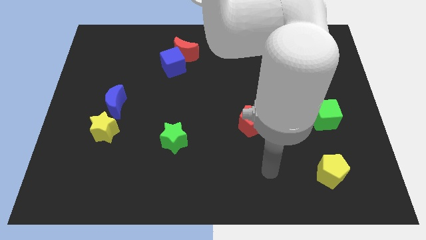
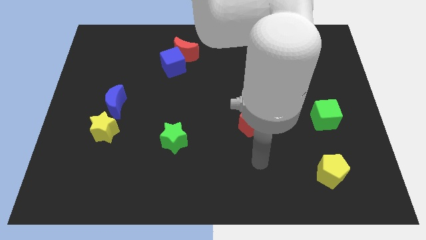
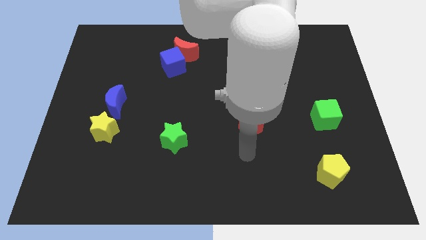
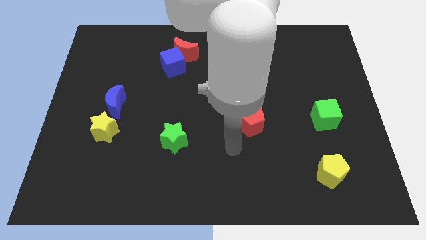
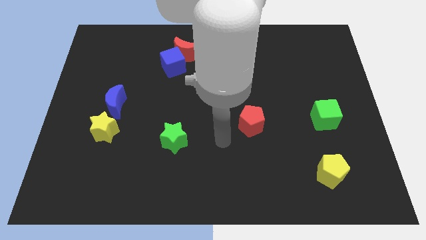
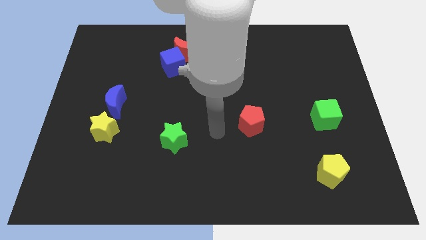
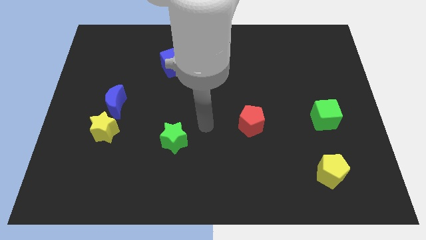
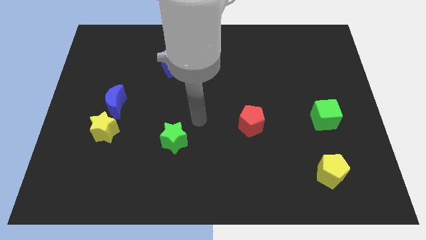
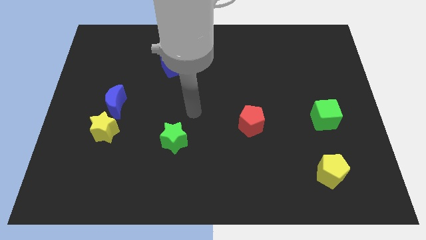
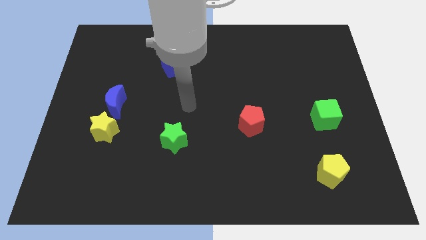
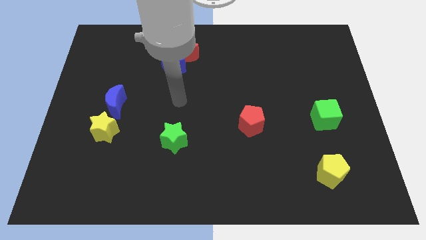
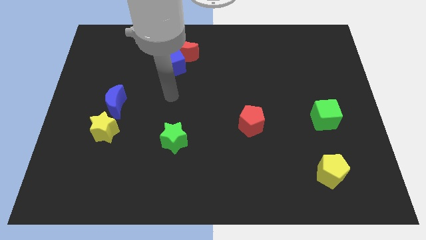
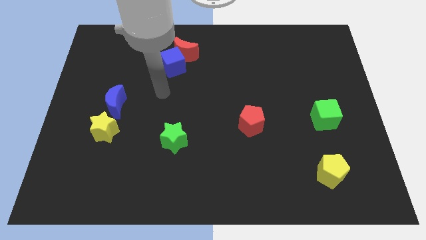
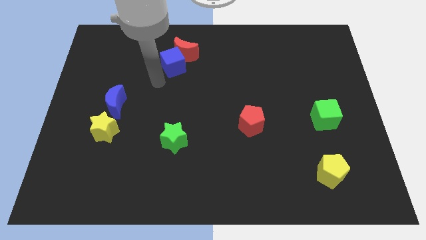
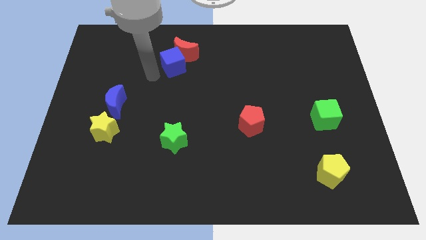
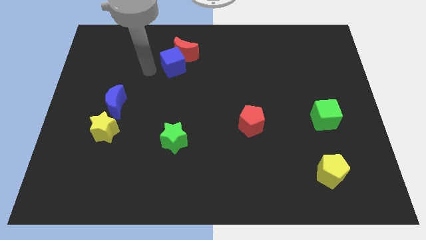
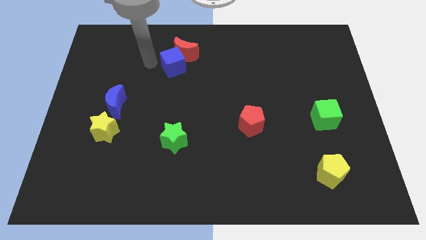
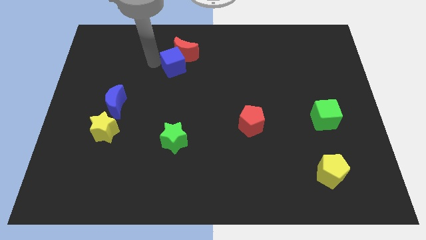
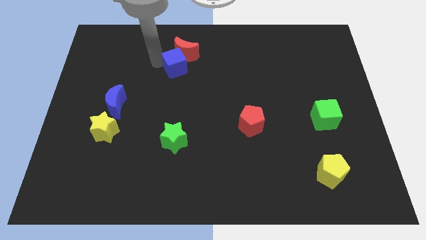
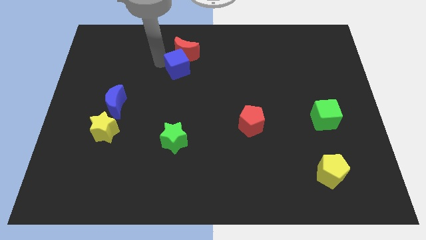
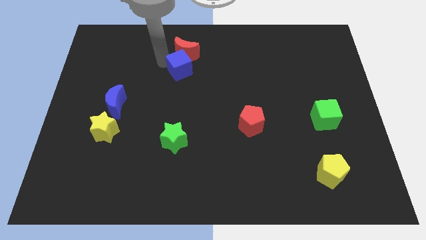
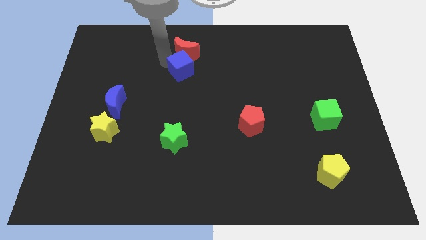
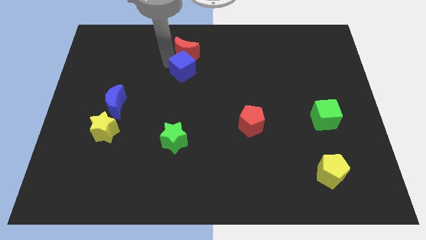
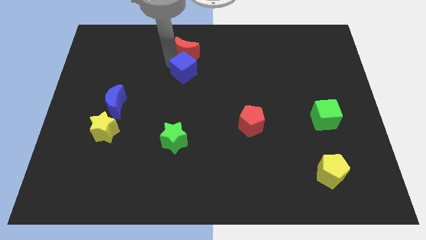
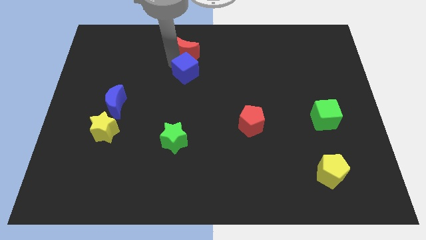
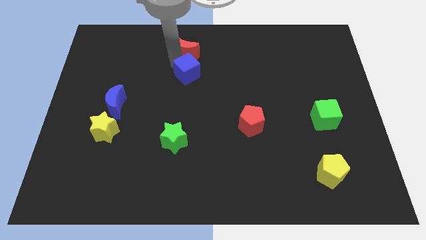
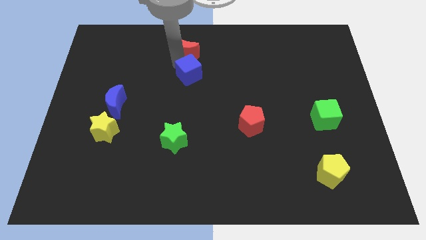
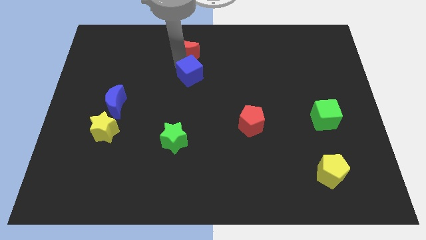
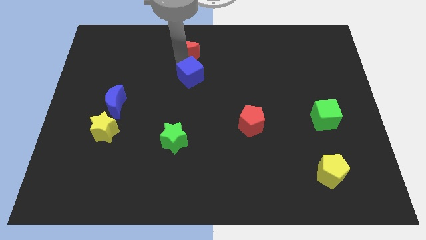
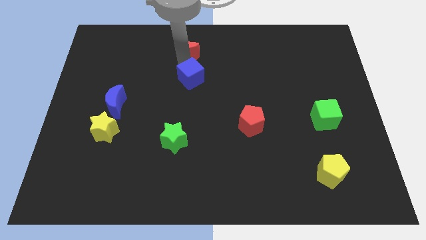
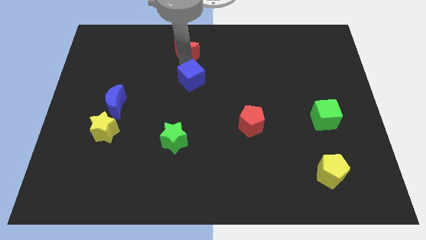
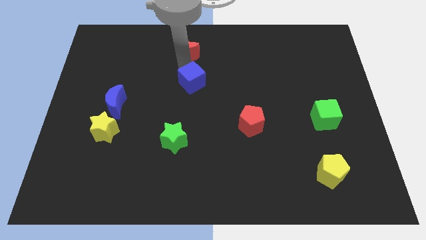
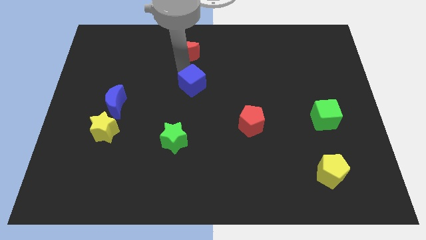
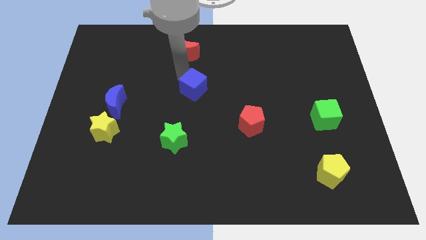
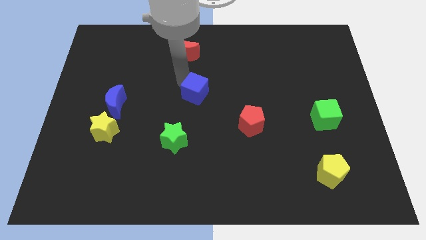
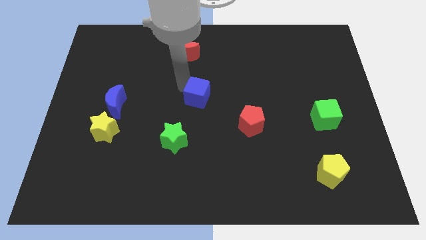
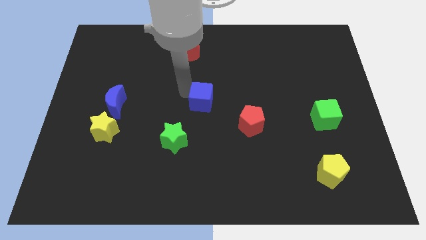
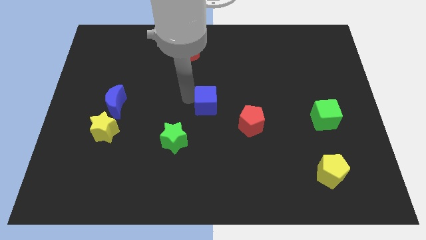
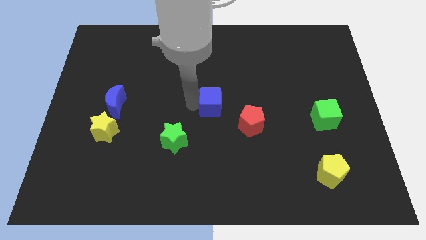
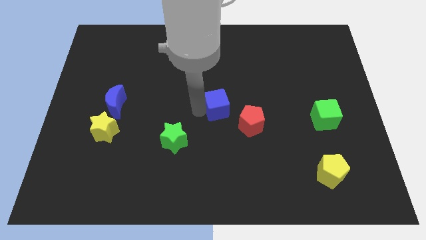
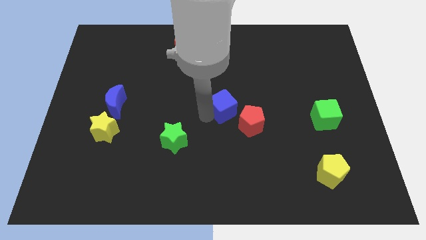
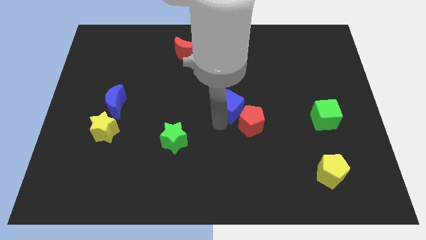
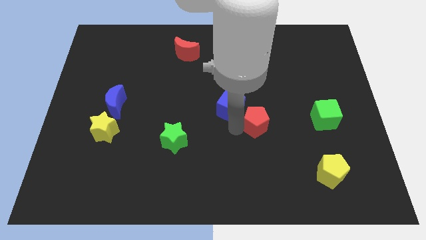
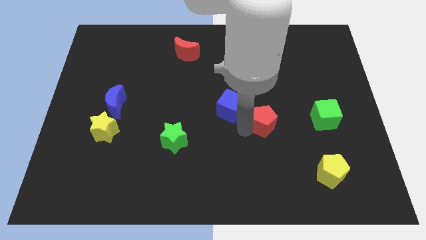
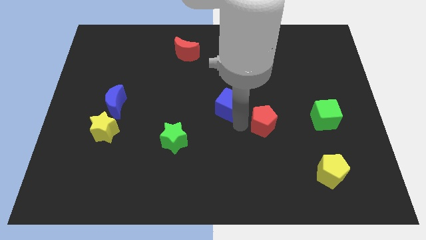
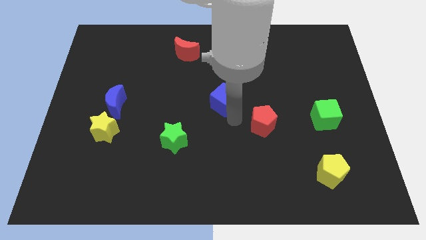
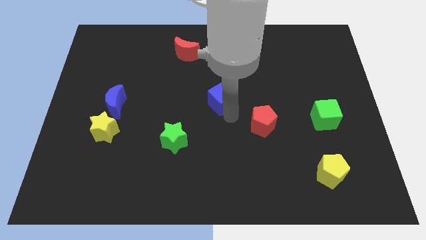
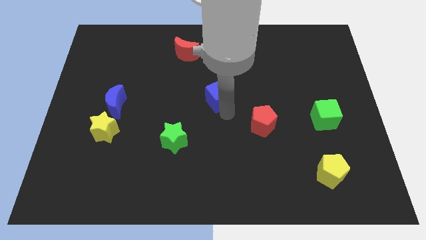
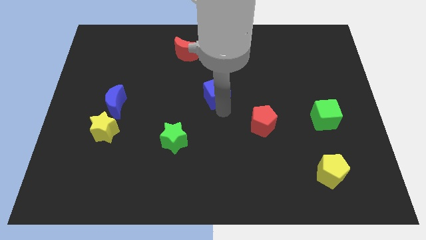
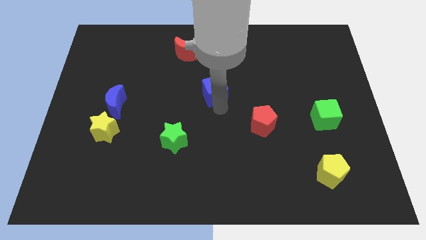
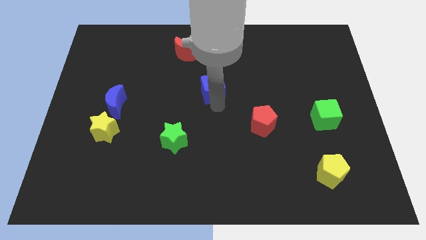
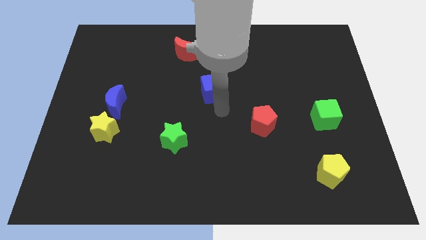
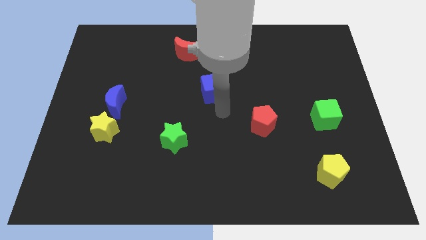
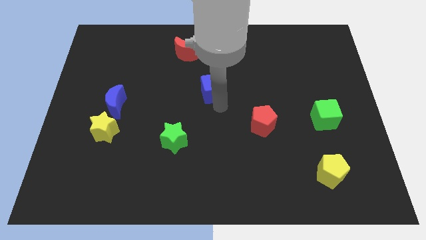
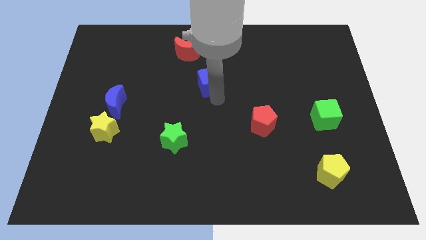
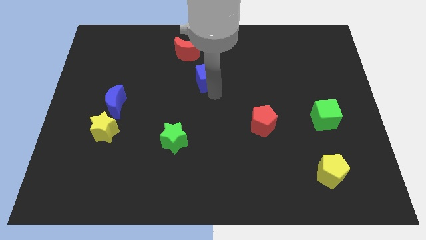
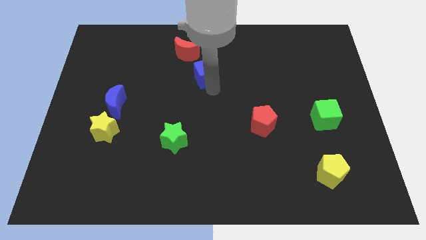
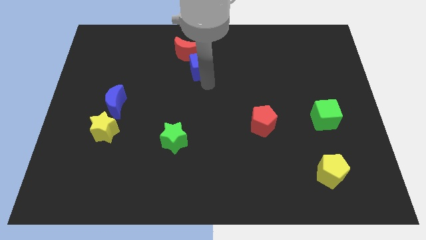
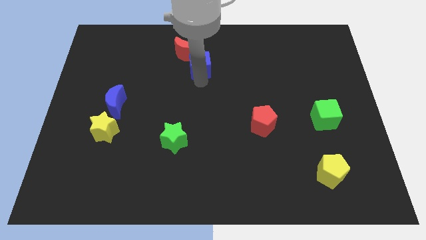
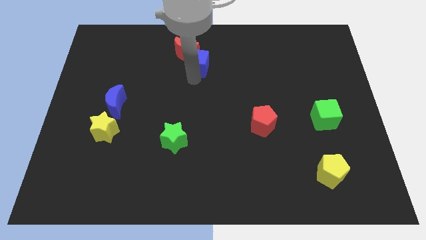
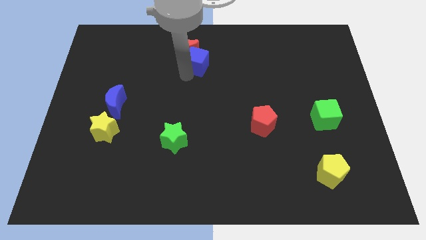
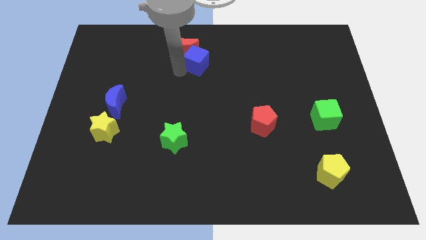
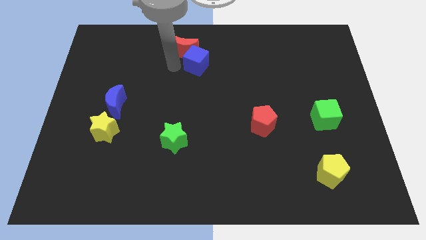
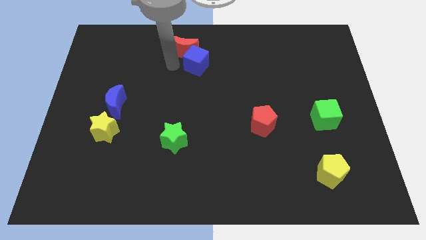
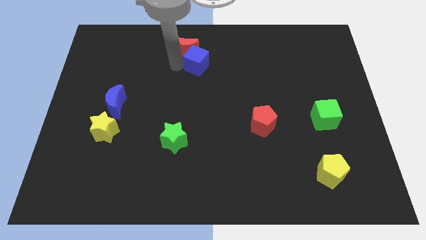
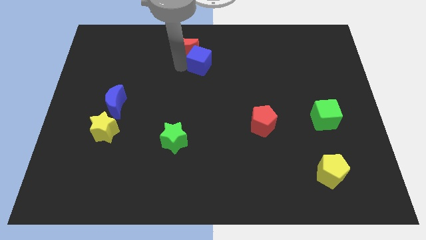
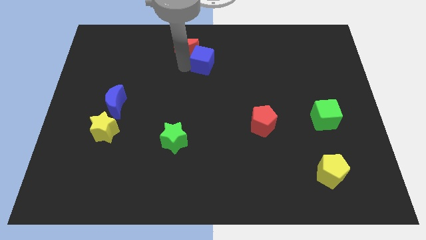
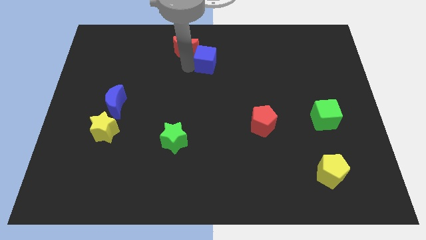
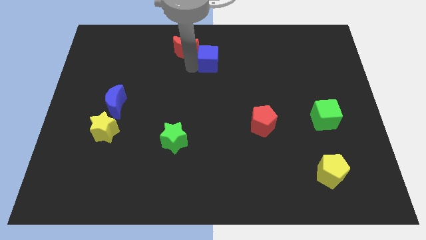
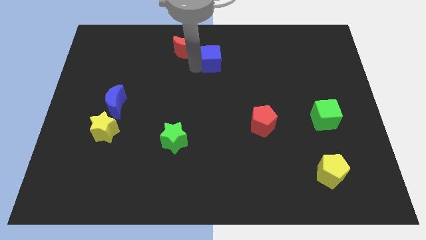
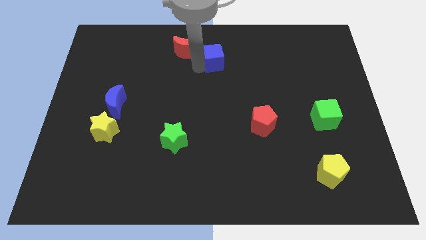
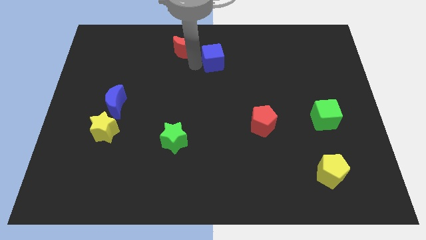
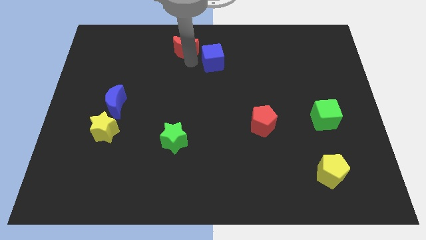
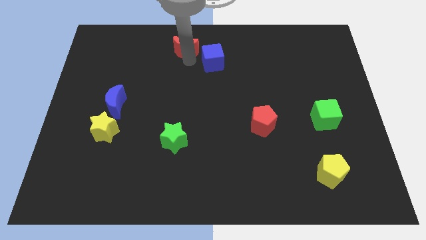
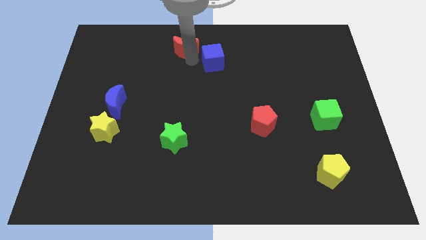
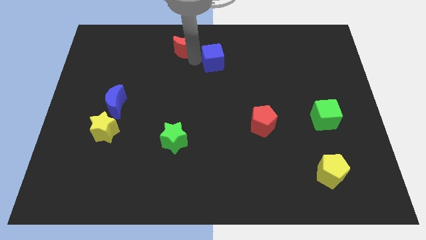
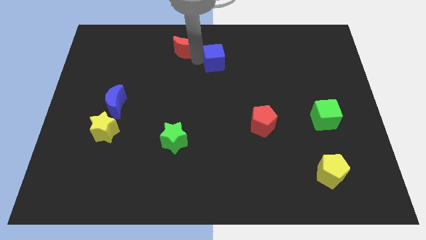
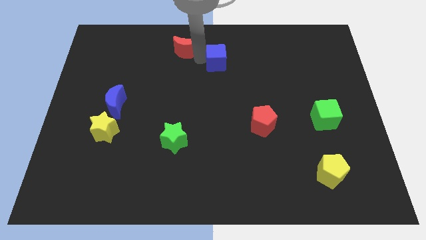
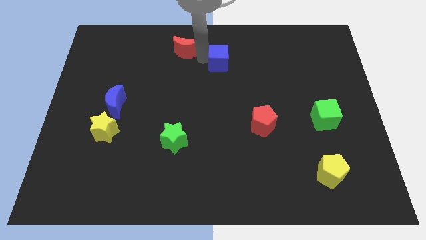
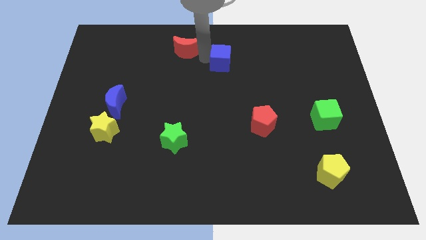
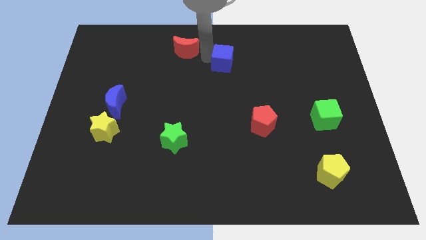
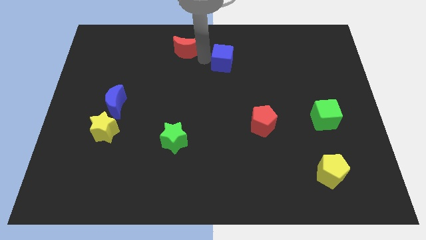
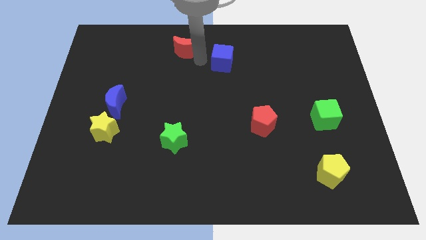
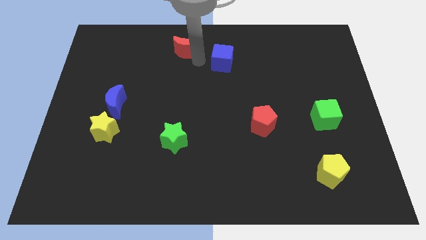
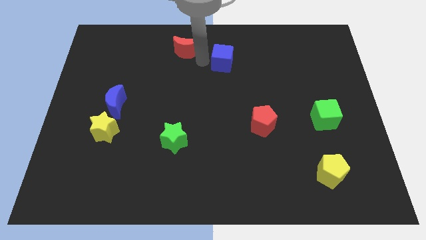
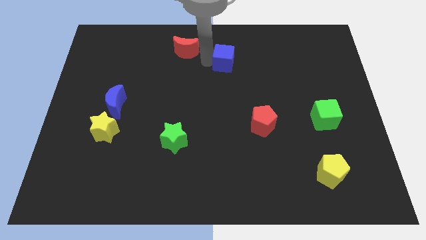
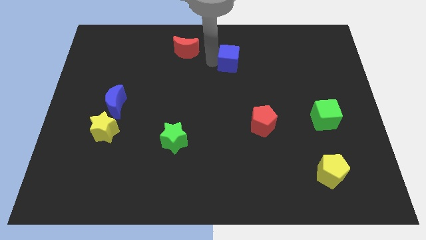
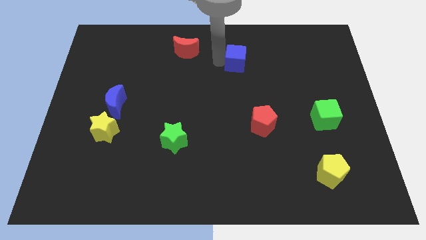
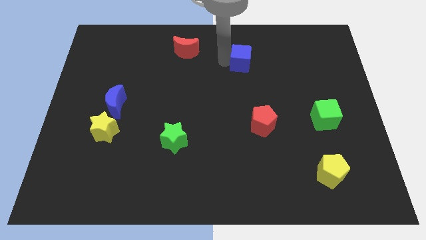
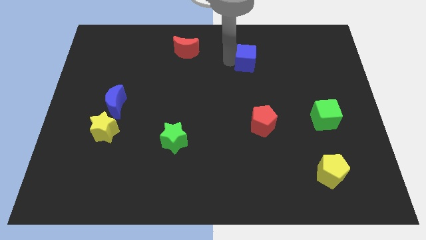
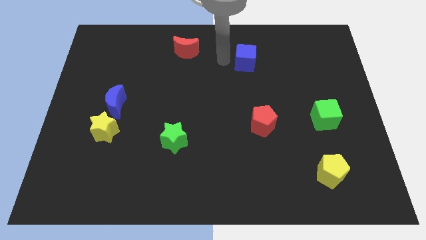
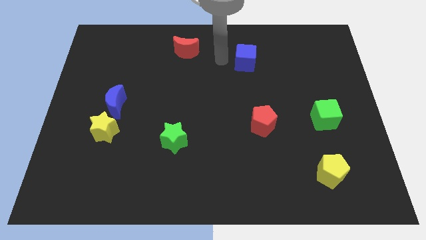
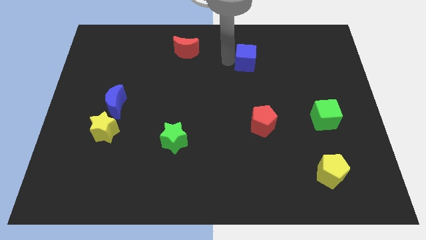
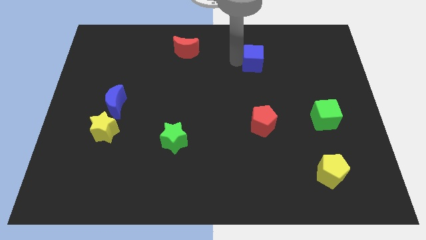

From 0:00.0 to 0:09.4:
move the blue cube right
